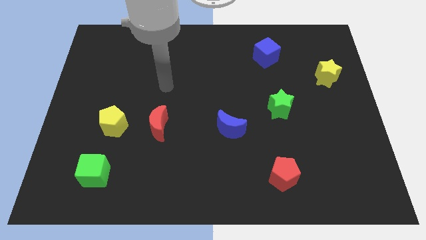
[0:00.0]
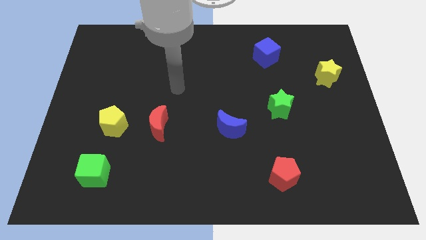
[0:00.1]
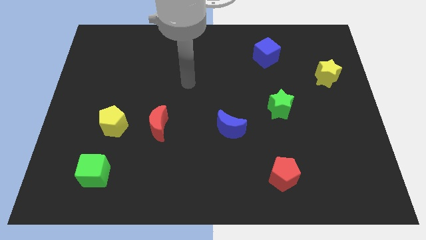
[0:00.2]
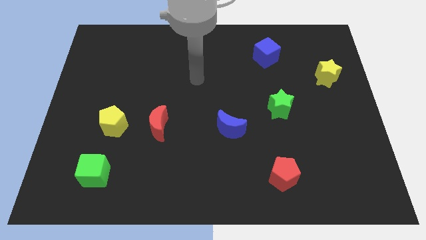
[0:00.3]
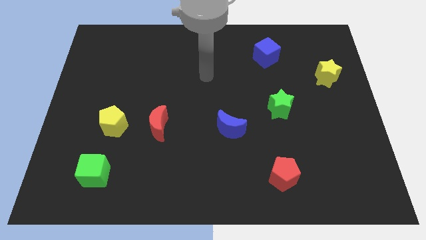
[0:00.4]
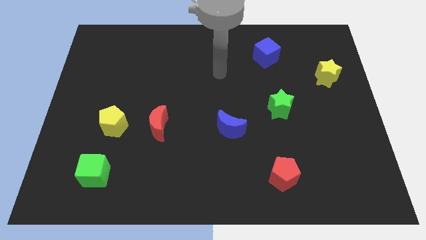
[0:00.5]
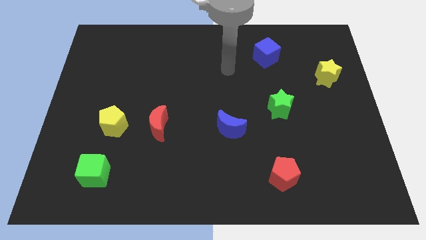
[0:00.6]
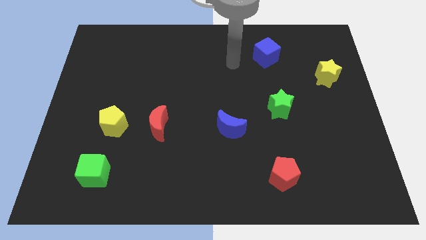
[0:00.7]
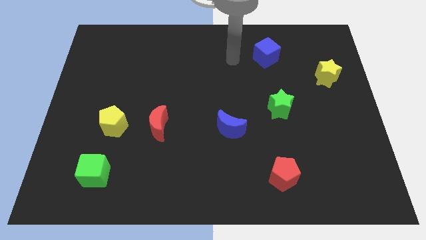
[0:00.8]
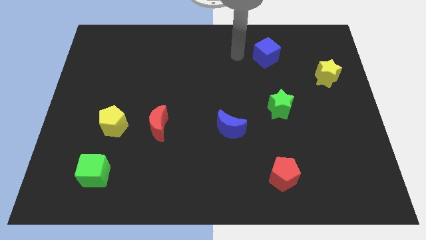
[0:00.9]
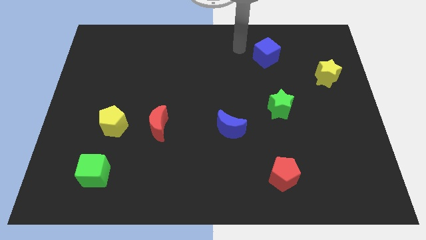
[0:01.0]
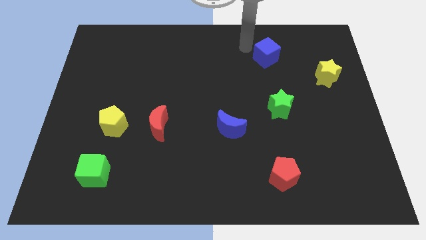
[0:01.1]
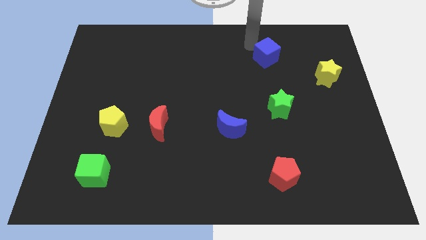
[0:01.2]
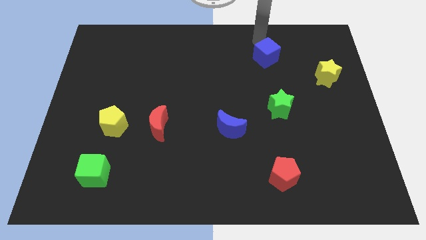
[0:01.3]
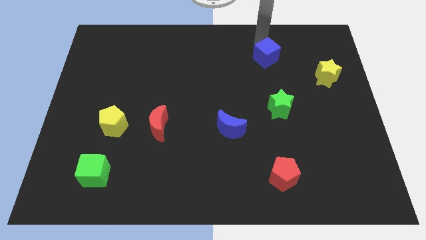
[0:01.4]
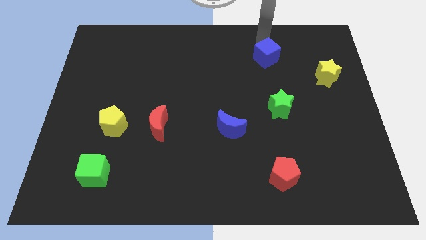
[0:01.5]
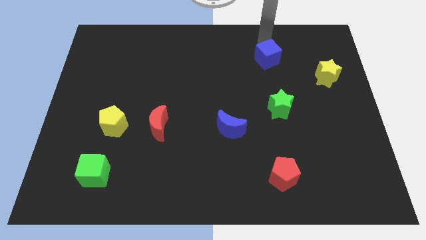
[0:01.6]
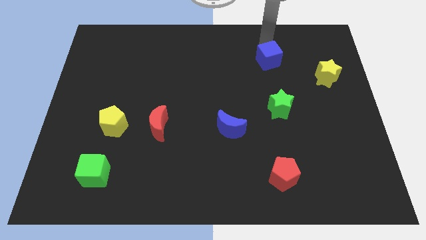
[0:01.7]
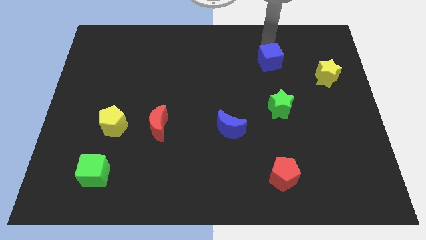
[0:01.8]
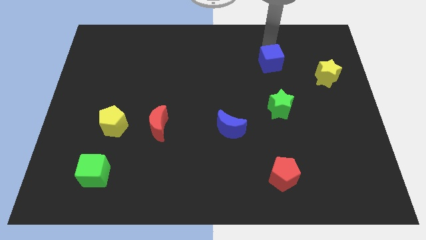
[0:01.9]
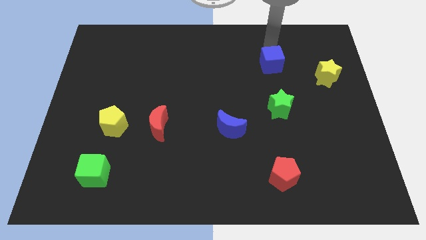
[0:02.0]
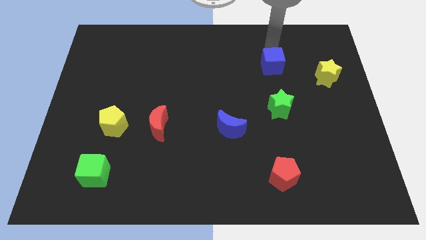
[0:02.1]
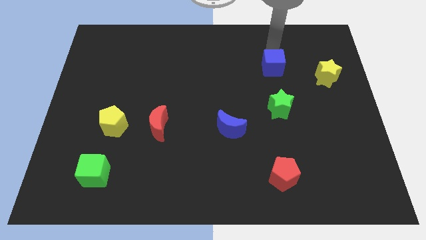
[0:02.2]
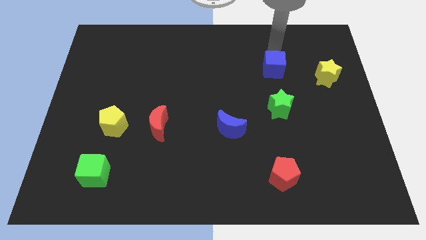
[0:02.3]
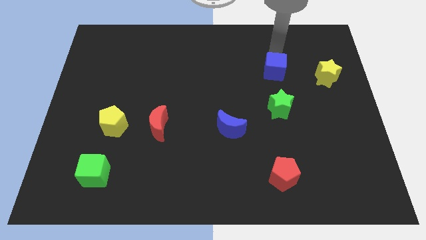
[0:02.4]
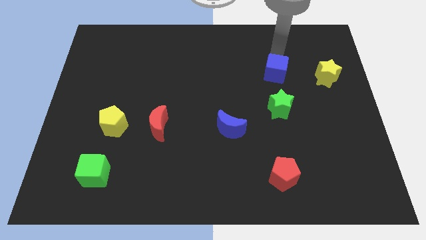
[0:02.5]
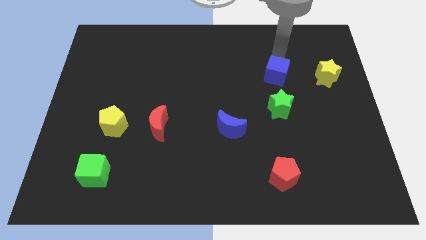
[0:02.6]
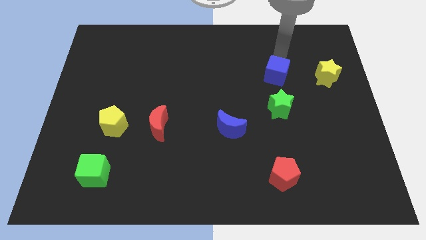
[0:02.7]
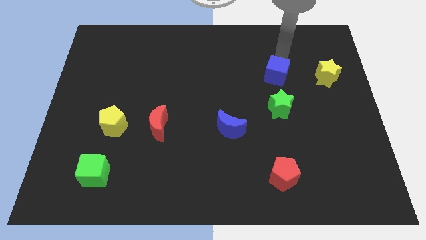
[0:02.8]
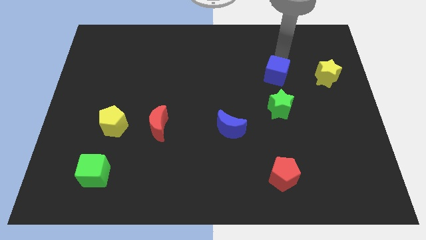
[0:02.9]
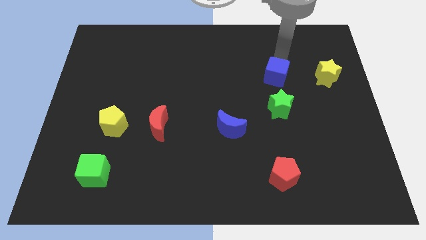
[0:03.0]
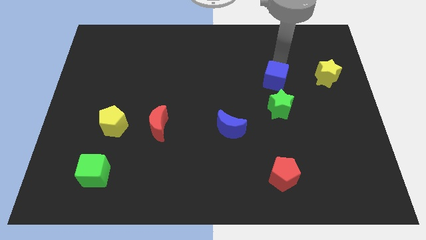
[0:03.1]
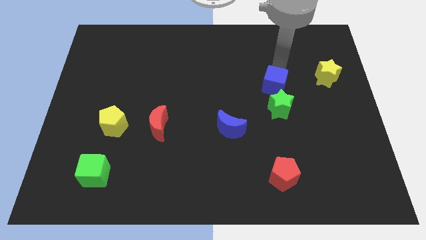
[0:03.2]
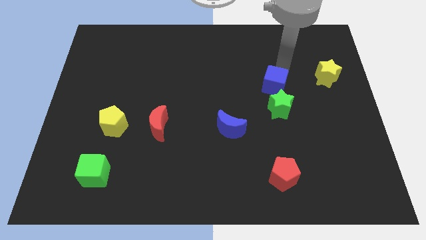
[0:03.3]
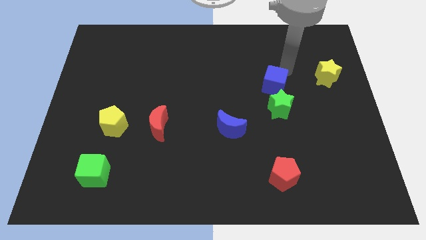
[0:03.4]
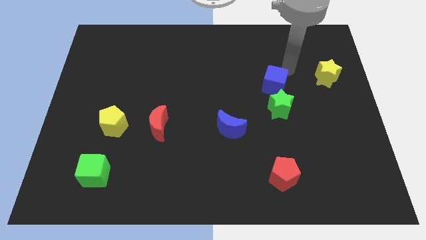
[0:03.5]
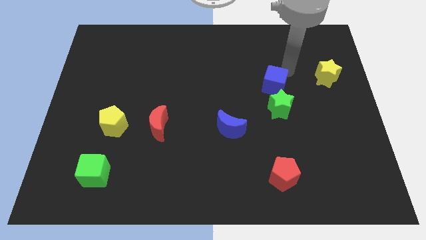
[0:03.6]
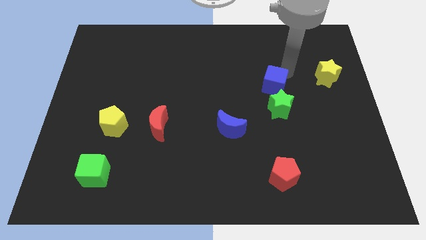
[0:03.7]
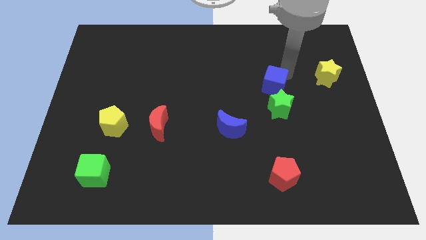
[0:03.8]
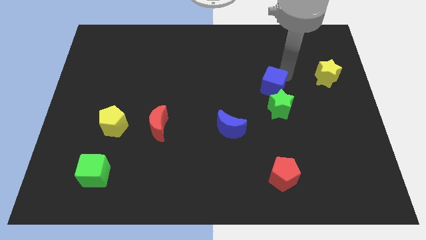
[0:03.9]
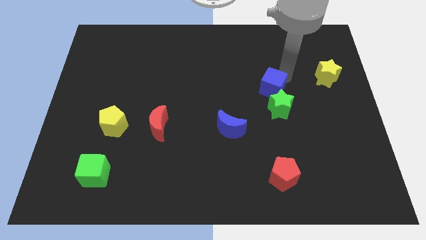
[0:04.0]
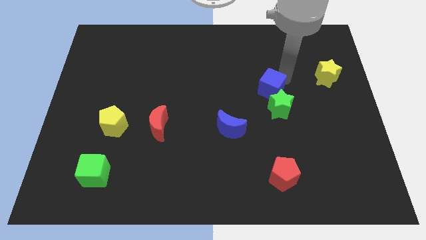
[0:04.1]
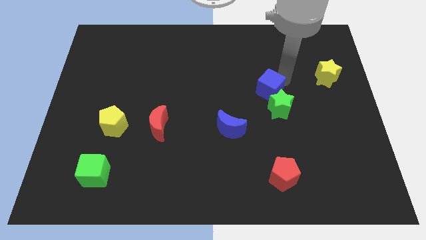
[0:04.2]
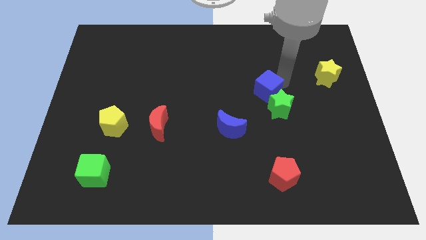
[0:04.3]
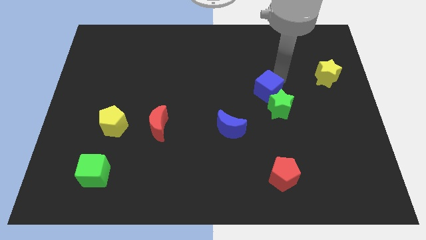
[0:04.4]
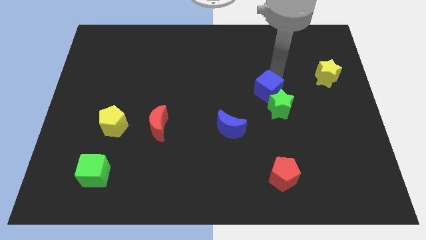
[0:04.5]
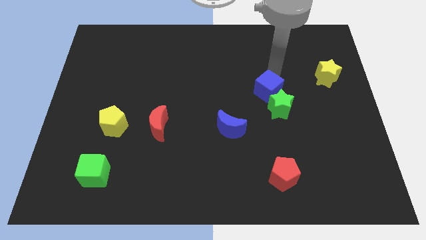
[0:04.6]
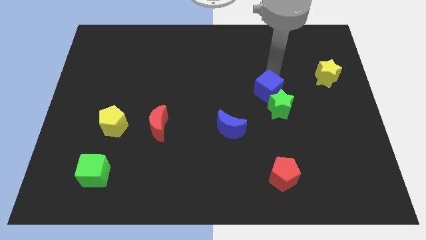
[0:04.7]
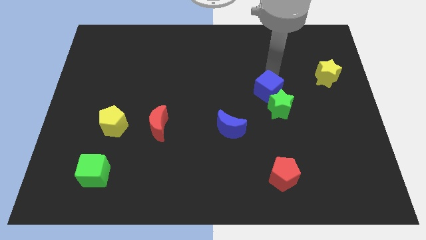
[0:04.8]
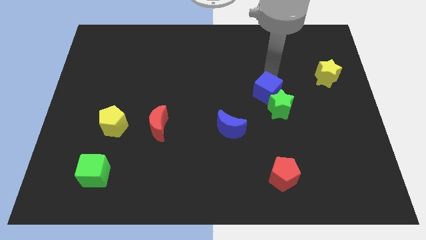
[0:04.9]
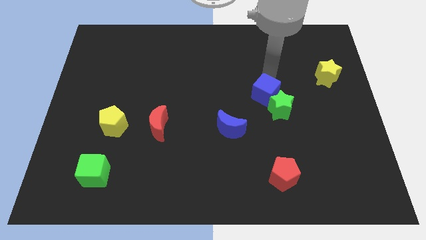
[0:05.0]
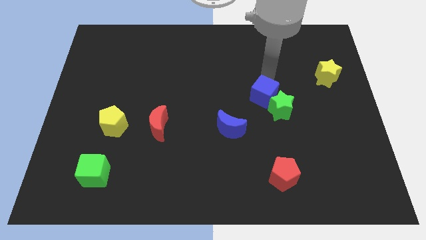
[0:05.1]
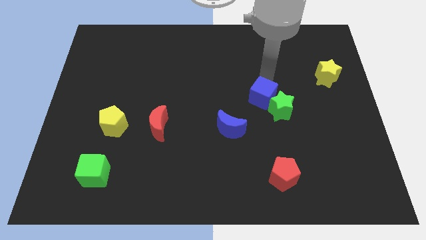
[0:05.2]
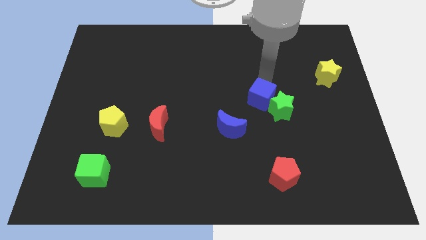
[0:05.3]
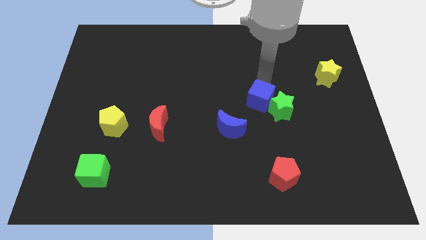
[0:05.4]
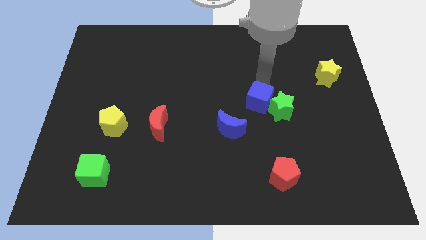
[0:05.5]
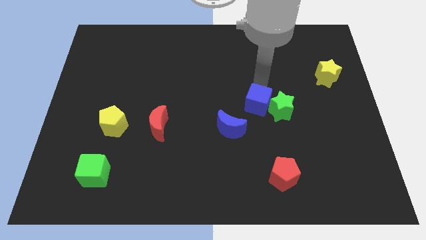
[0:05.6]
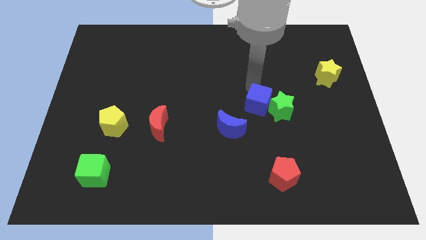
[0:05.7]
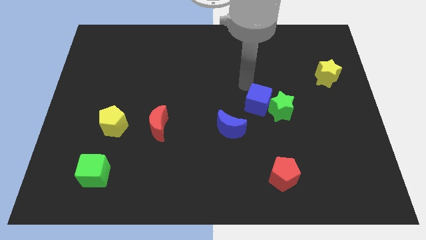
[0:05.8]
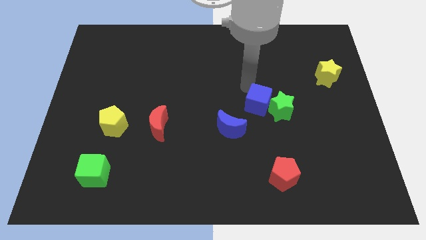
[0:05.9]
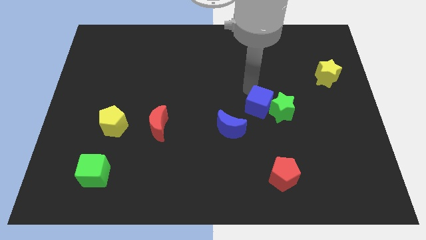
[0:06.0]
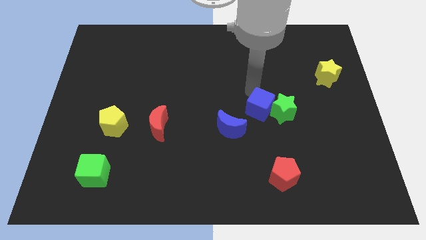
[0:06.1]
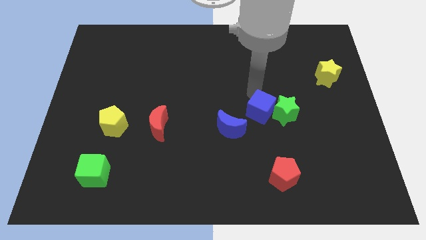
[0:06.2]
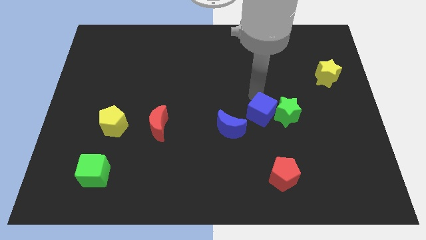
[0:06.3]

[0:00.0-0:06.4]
slide the blue cube to the right of the blue moon

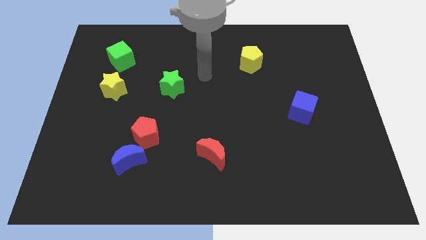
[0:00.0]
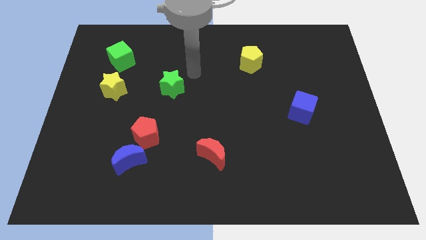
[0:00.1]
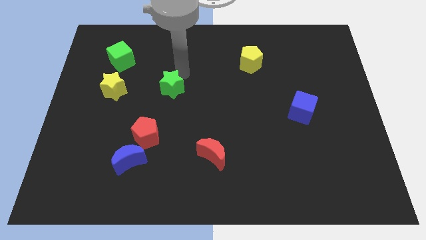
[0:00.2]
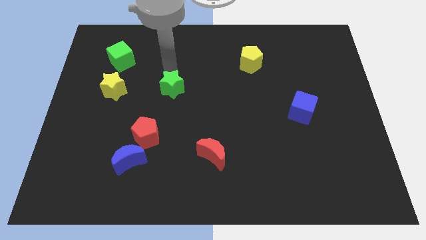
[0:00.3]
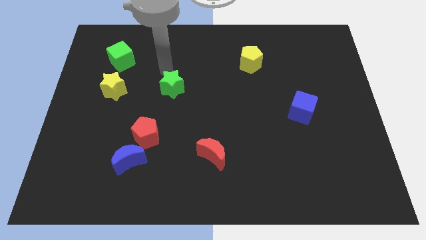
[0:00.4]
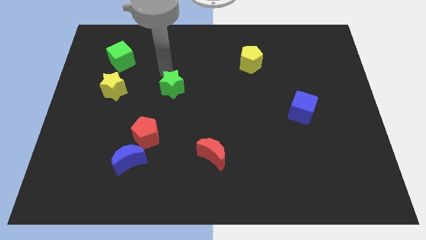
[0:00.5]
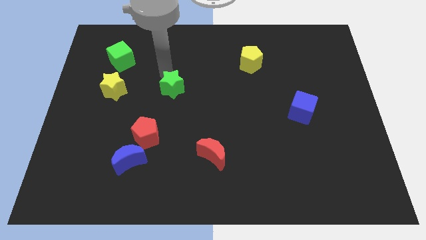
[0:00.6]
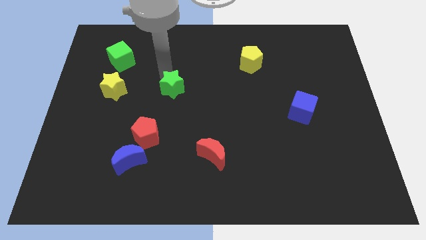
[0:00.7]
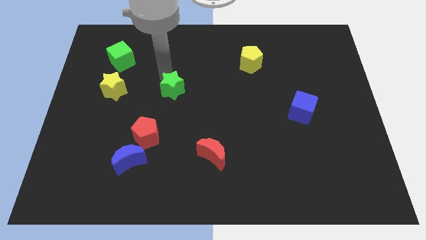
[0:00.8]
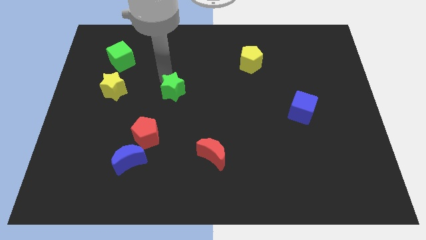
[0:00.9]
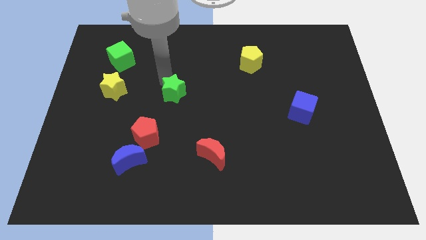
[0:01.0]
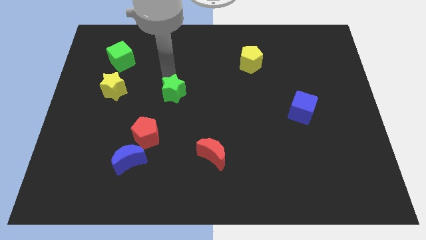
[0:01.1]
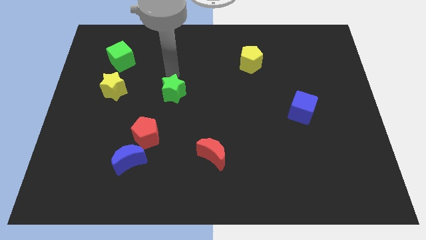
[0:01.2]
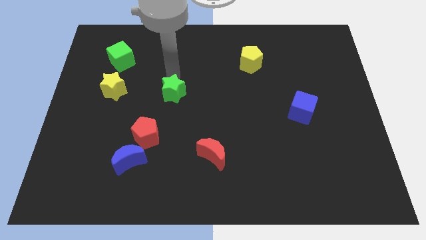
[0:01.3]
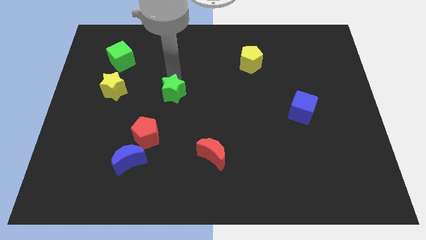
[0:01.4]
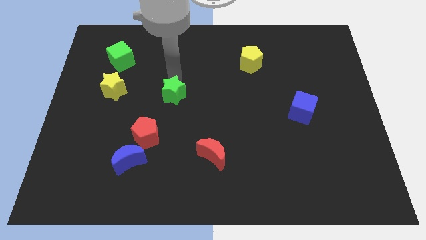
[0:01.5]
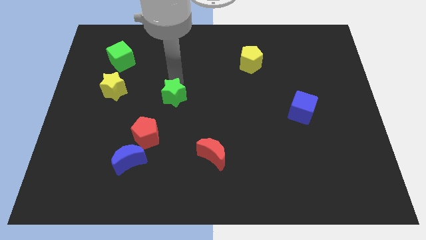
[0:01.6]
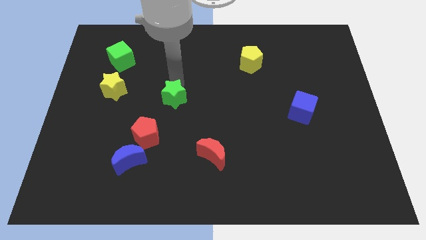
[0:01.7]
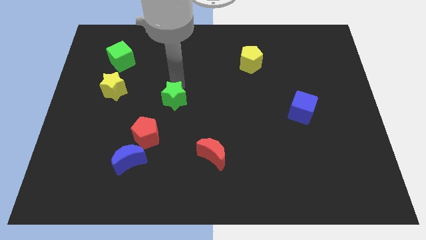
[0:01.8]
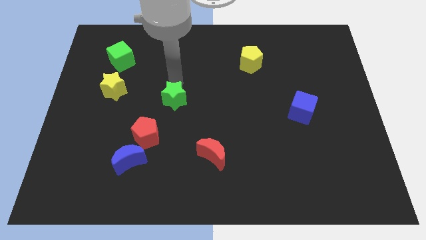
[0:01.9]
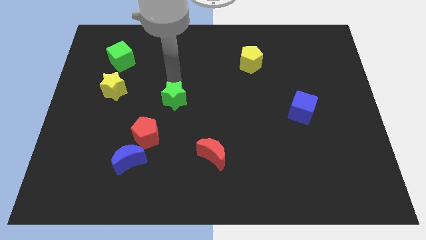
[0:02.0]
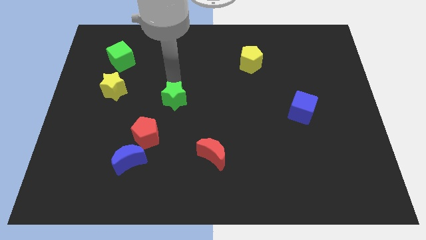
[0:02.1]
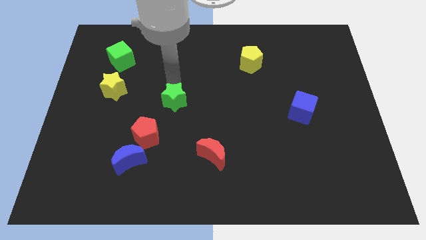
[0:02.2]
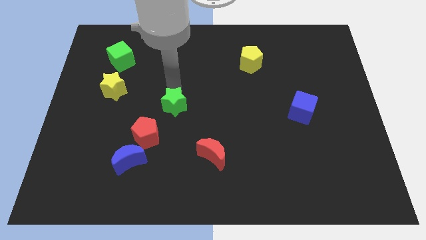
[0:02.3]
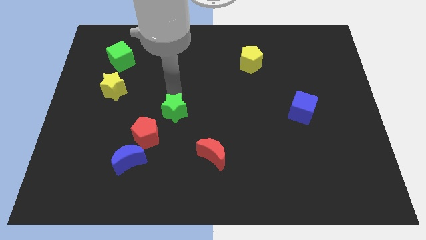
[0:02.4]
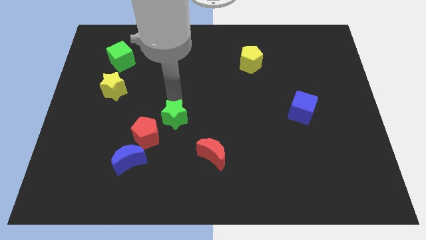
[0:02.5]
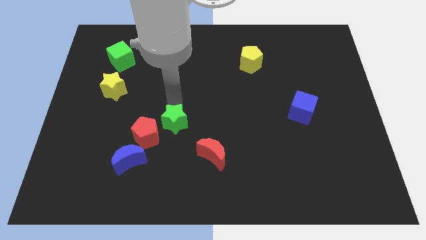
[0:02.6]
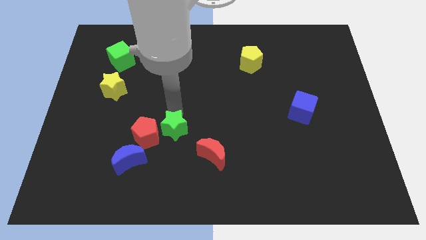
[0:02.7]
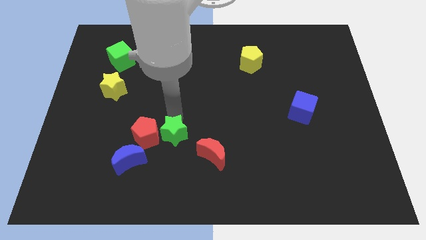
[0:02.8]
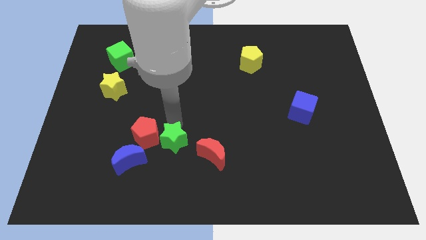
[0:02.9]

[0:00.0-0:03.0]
put the green star to the right of the blue moon
